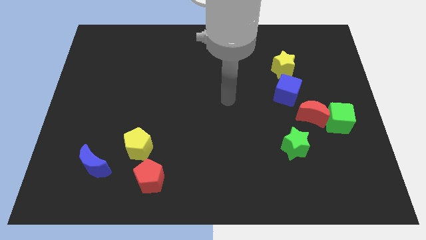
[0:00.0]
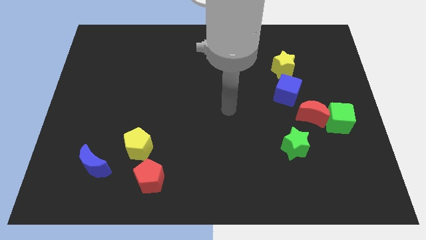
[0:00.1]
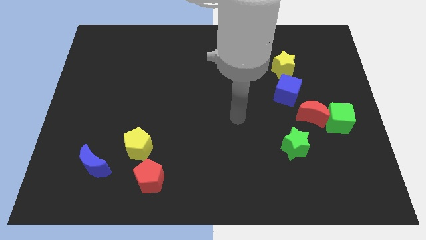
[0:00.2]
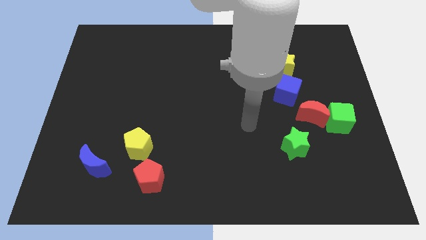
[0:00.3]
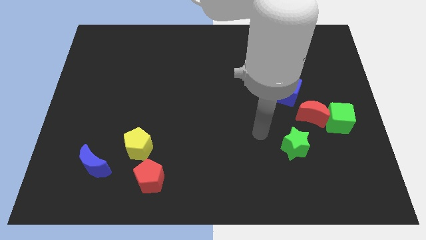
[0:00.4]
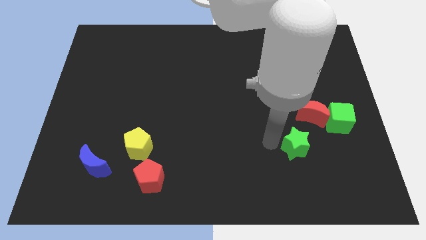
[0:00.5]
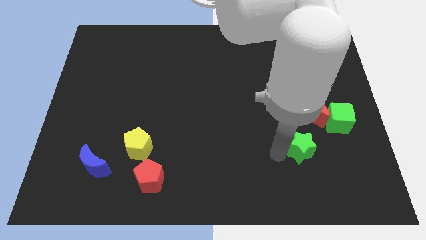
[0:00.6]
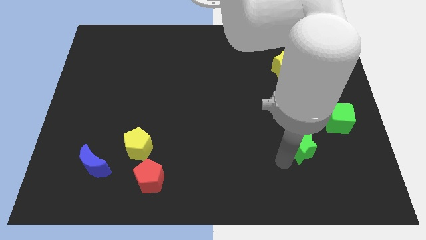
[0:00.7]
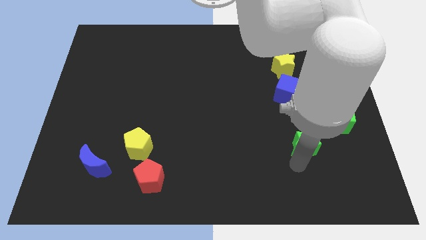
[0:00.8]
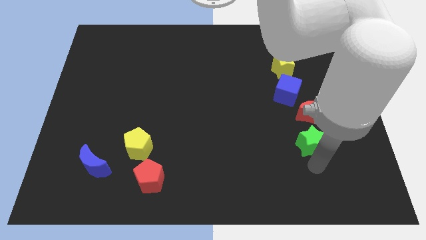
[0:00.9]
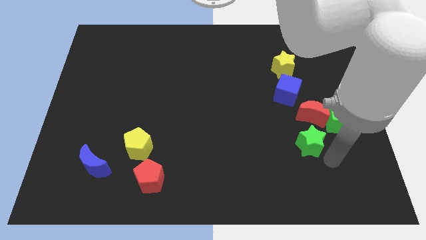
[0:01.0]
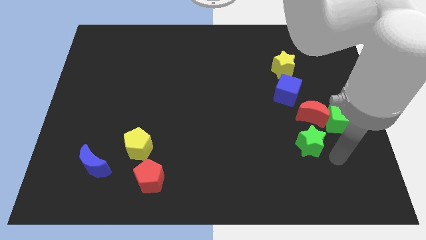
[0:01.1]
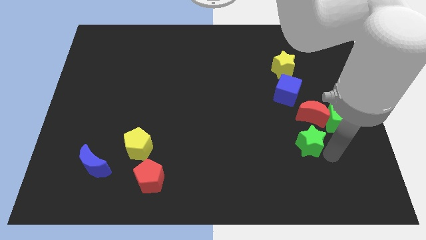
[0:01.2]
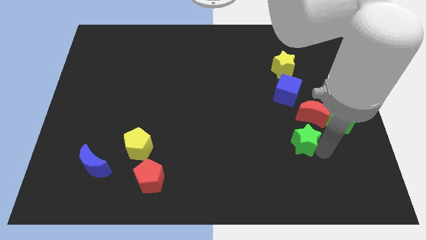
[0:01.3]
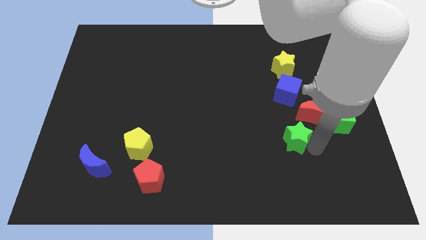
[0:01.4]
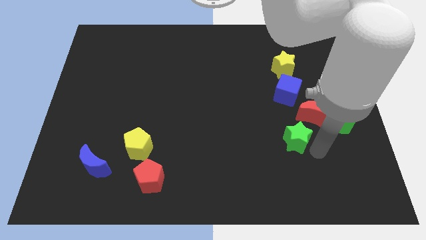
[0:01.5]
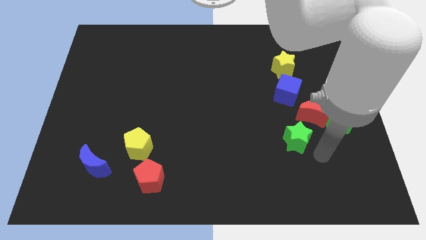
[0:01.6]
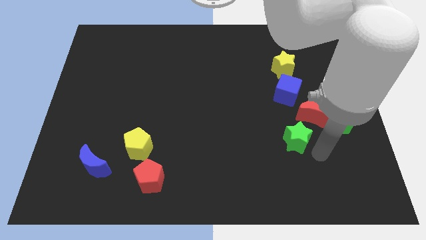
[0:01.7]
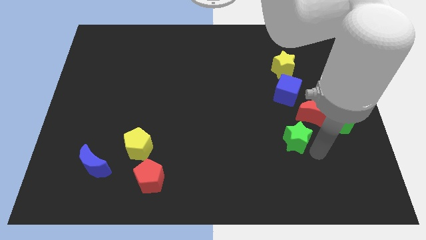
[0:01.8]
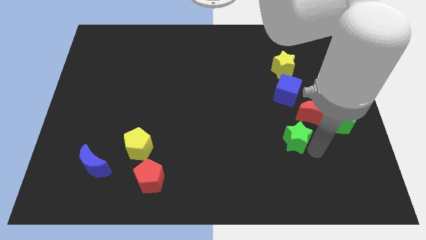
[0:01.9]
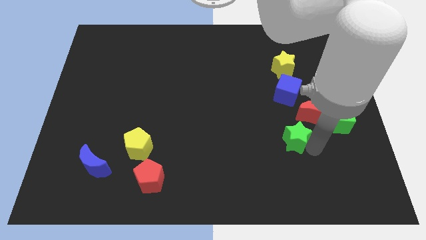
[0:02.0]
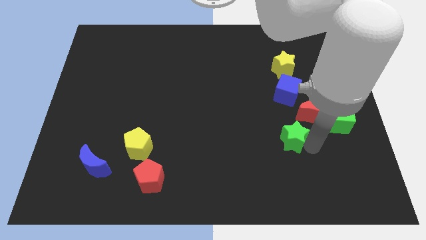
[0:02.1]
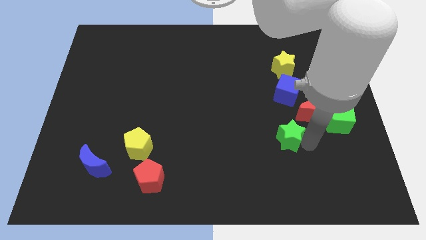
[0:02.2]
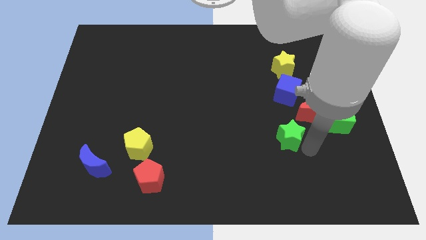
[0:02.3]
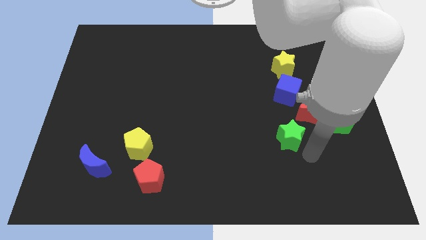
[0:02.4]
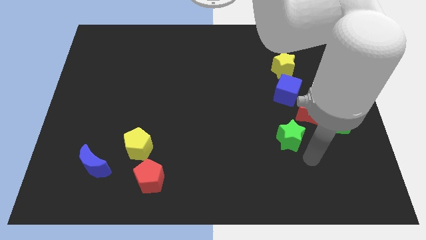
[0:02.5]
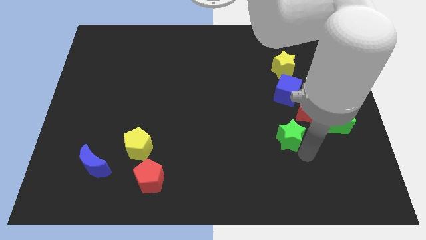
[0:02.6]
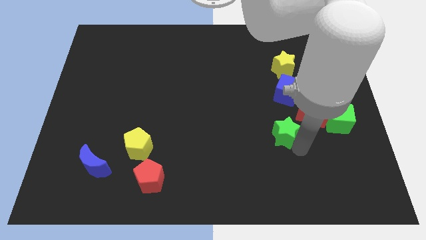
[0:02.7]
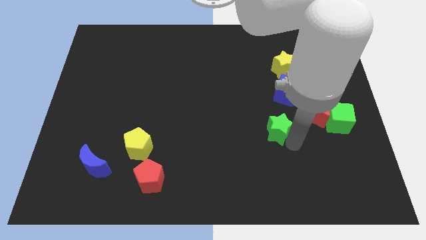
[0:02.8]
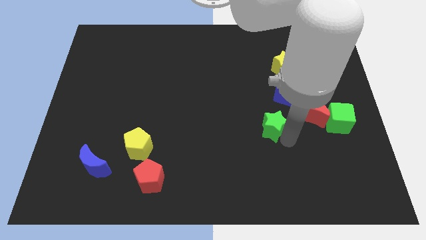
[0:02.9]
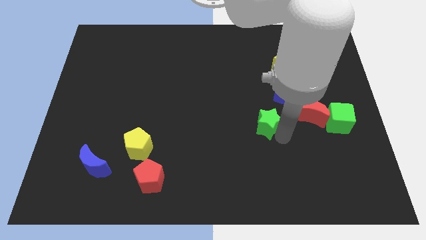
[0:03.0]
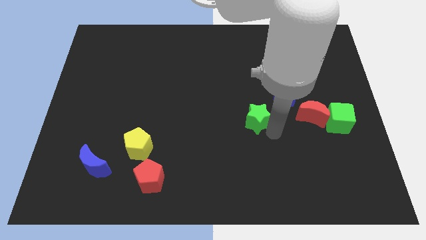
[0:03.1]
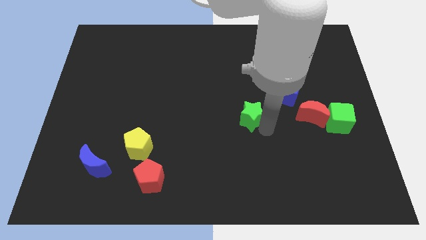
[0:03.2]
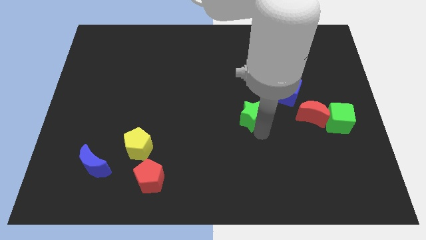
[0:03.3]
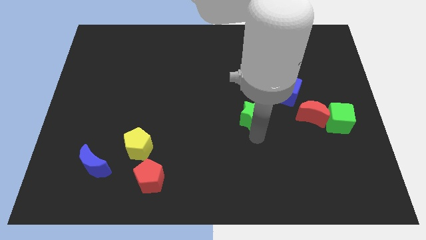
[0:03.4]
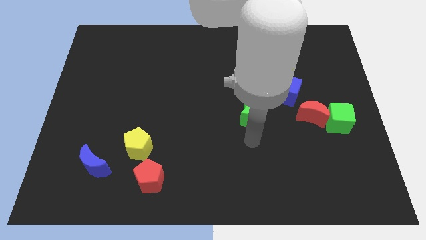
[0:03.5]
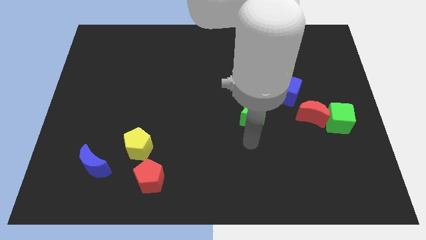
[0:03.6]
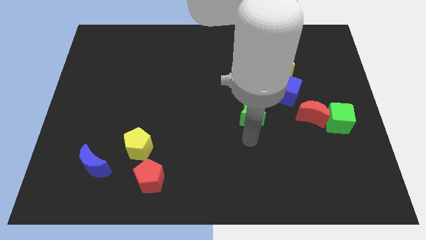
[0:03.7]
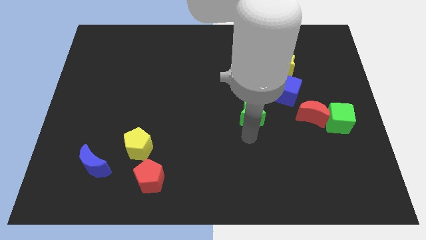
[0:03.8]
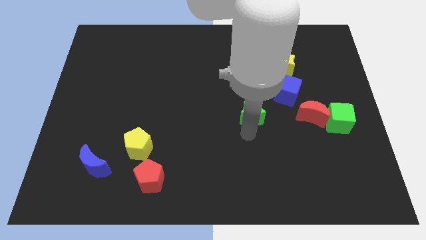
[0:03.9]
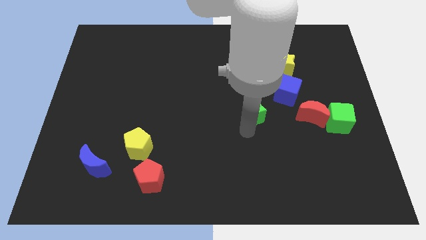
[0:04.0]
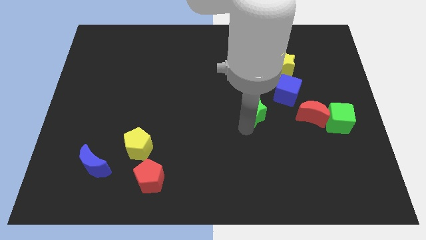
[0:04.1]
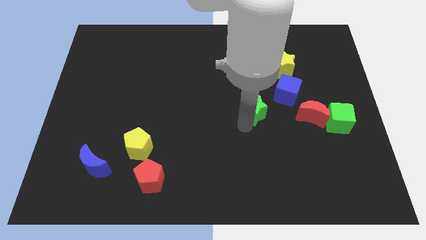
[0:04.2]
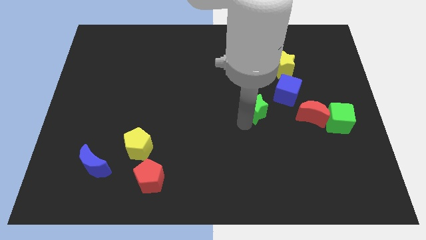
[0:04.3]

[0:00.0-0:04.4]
push the green star slightly up

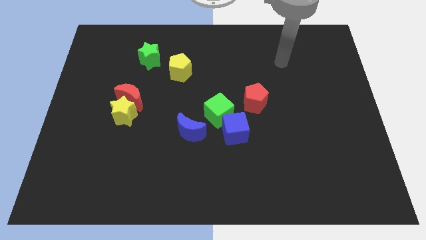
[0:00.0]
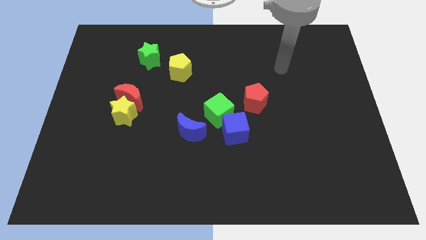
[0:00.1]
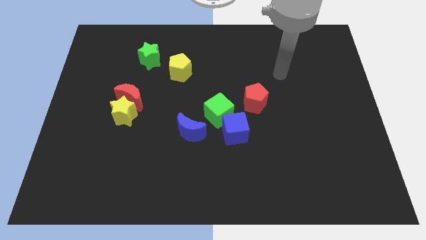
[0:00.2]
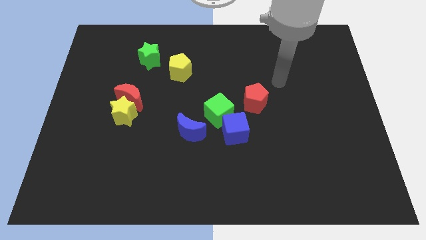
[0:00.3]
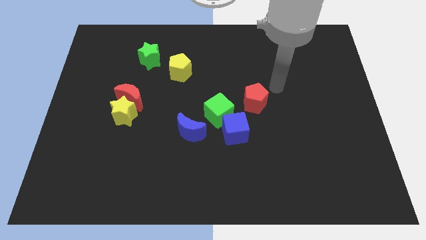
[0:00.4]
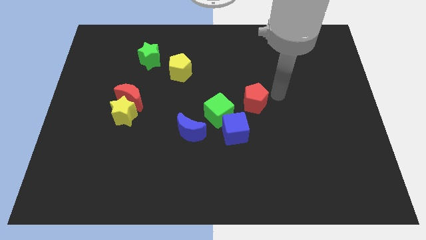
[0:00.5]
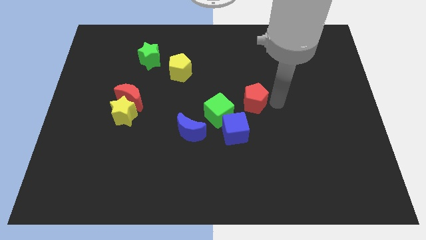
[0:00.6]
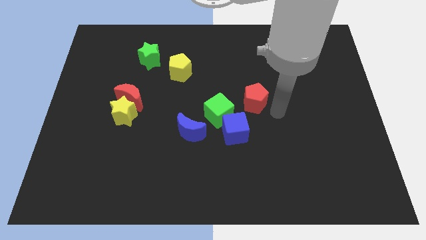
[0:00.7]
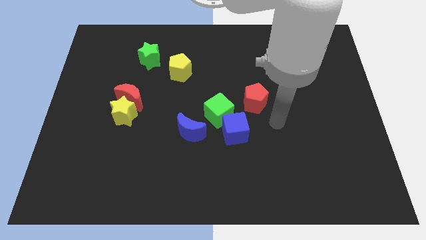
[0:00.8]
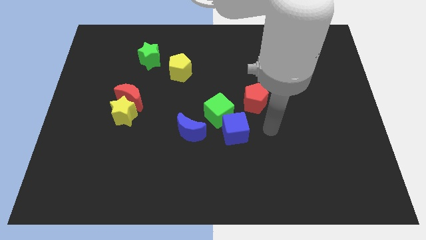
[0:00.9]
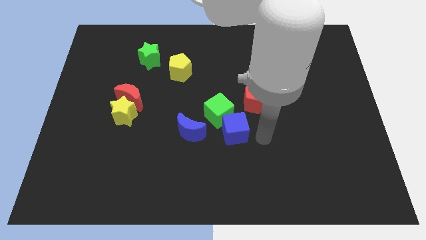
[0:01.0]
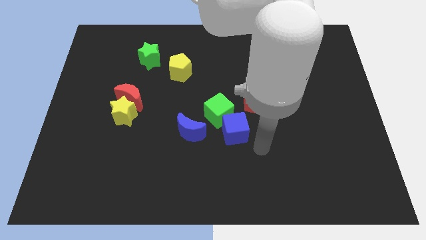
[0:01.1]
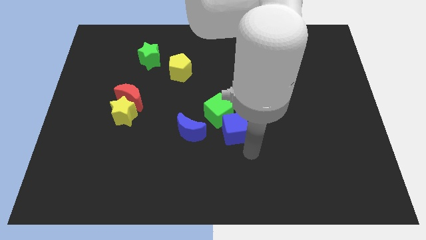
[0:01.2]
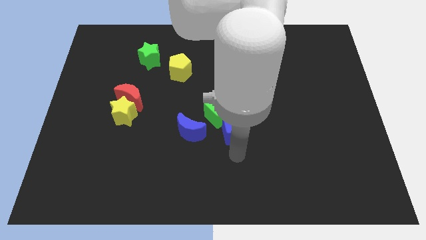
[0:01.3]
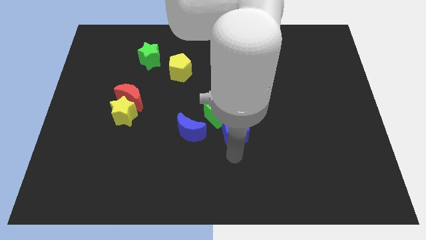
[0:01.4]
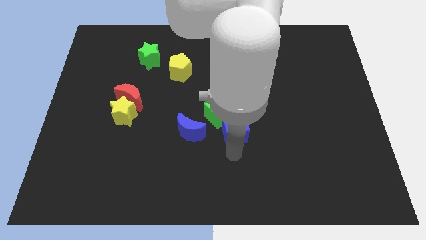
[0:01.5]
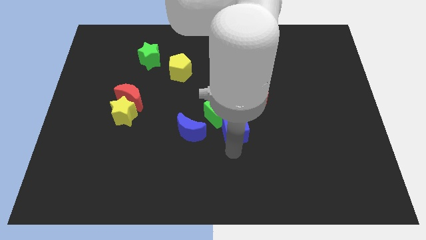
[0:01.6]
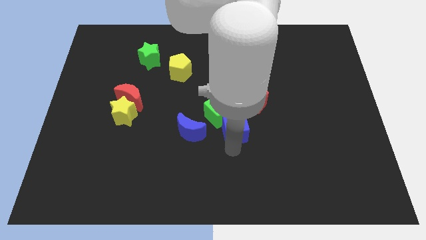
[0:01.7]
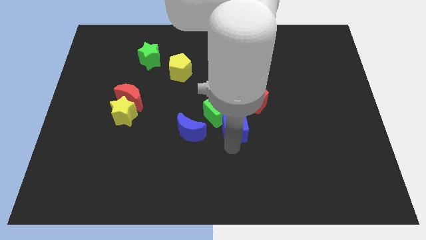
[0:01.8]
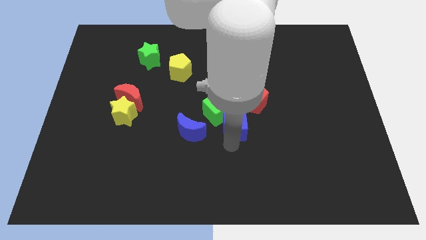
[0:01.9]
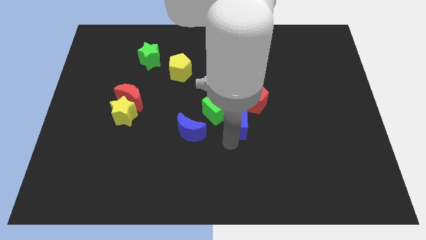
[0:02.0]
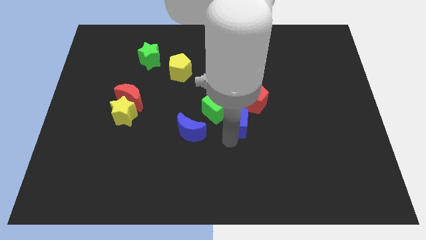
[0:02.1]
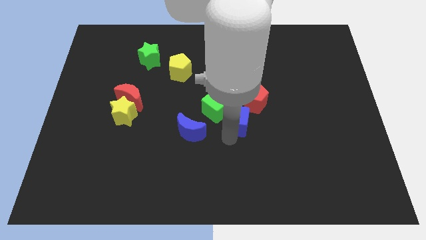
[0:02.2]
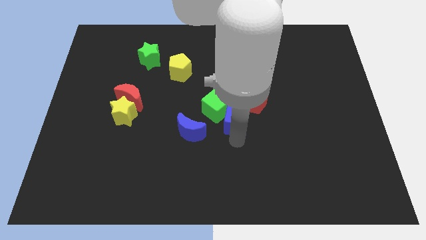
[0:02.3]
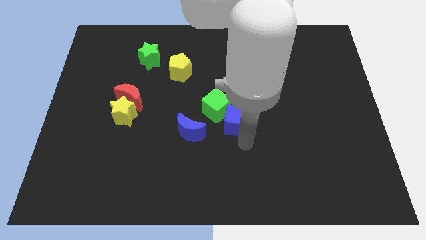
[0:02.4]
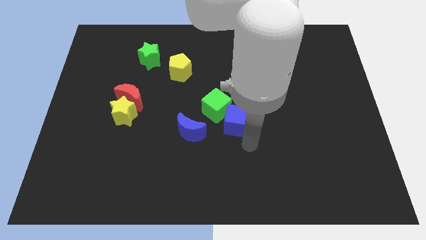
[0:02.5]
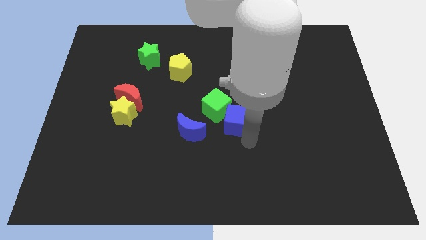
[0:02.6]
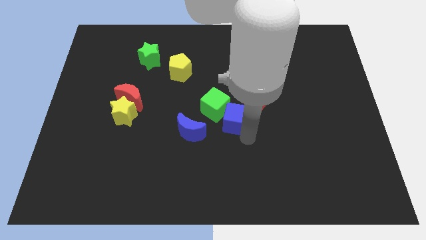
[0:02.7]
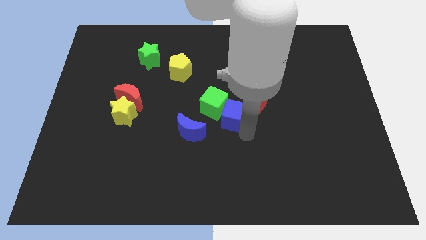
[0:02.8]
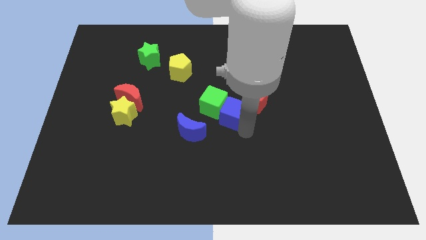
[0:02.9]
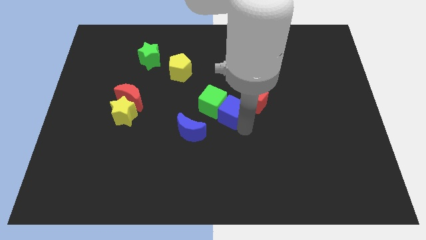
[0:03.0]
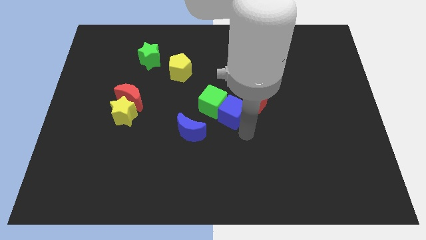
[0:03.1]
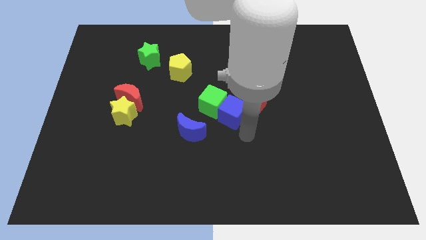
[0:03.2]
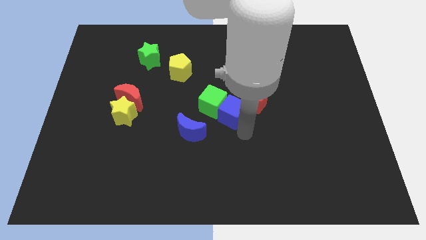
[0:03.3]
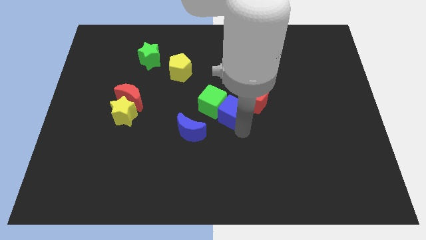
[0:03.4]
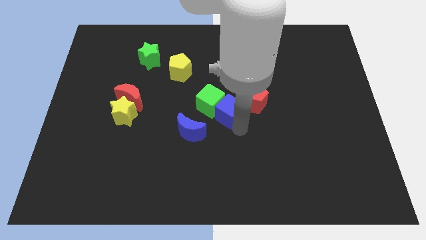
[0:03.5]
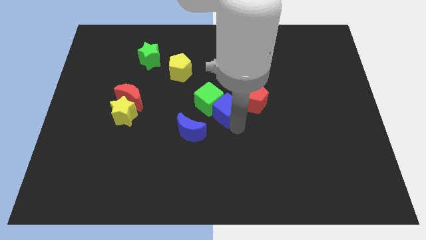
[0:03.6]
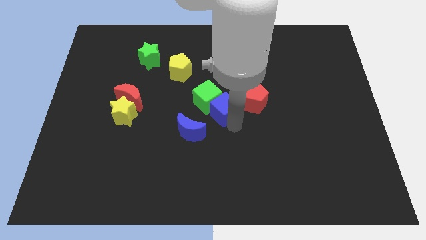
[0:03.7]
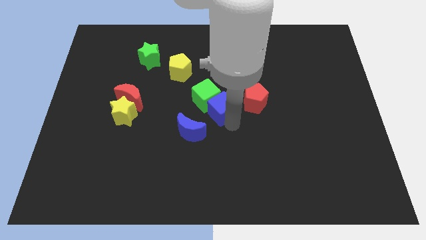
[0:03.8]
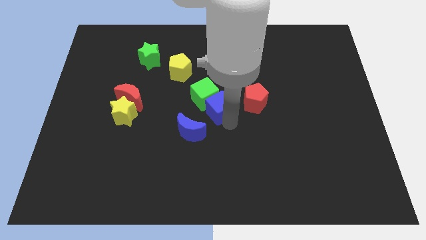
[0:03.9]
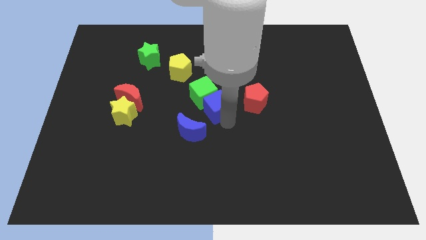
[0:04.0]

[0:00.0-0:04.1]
push the blue cube slightly upwards and left diagonally
